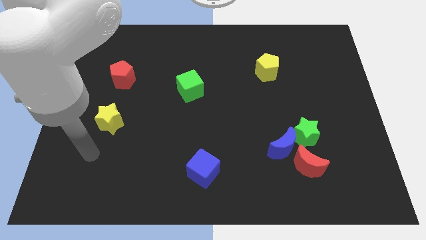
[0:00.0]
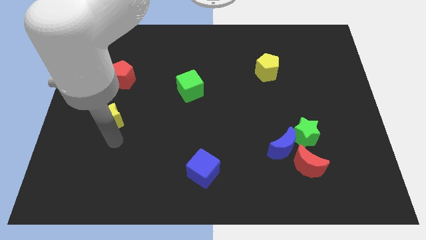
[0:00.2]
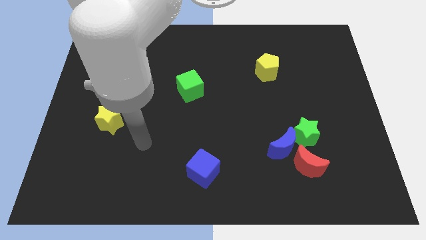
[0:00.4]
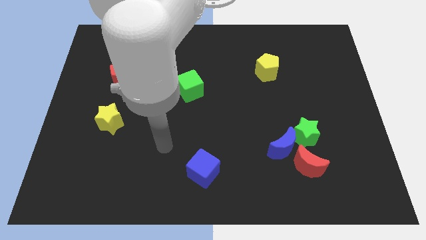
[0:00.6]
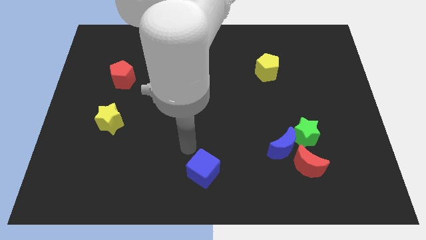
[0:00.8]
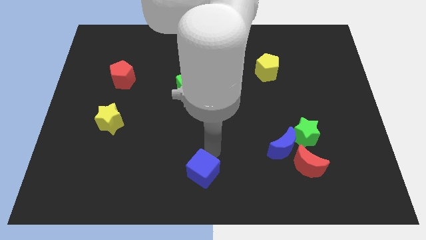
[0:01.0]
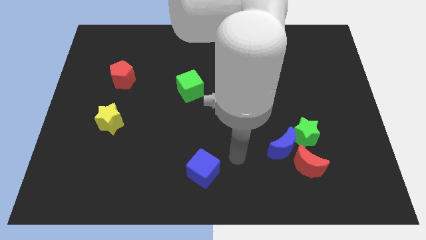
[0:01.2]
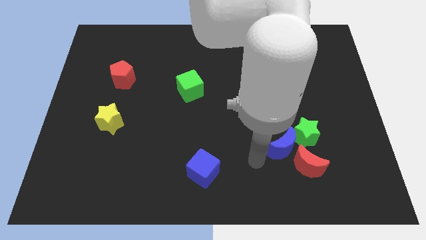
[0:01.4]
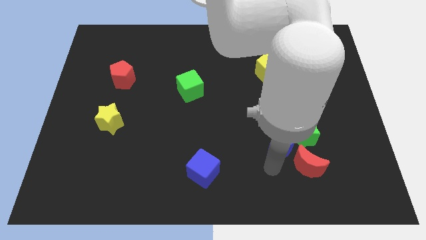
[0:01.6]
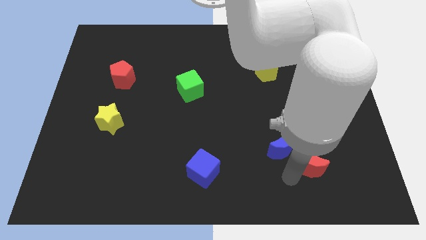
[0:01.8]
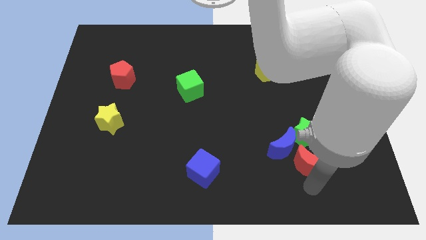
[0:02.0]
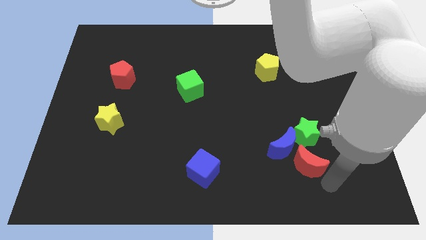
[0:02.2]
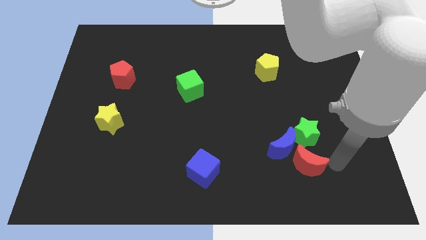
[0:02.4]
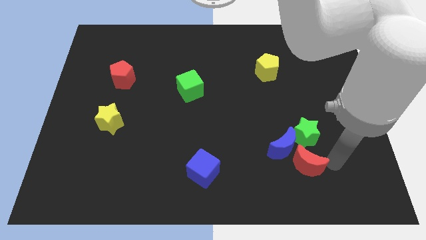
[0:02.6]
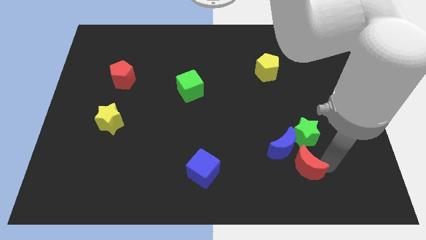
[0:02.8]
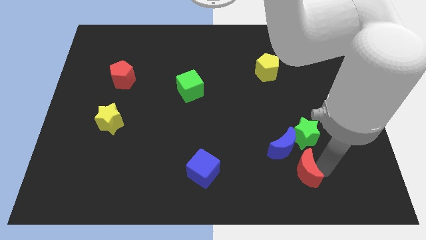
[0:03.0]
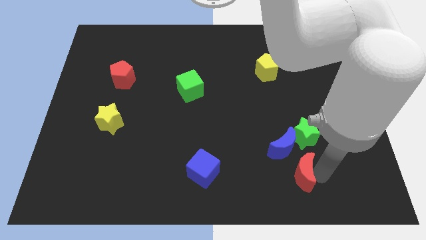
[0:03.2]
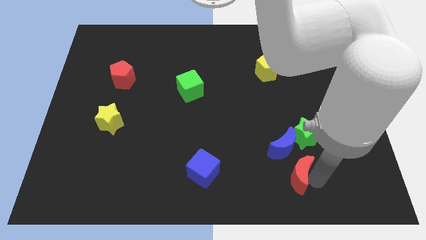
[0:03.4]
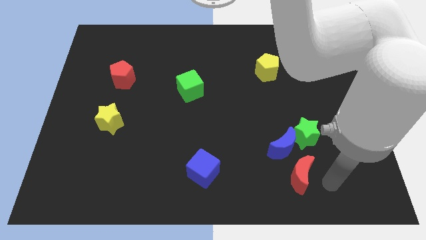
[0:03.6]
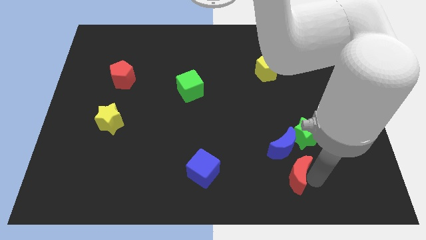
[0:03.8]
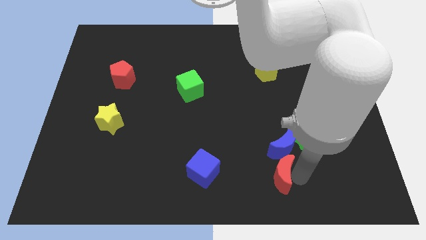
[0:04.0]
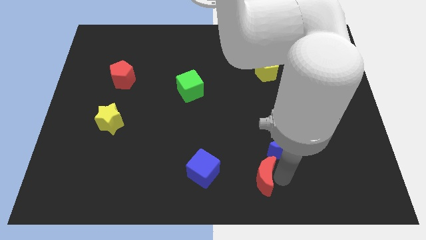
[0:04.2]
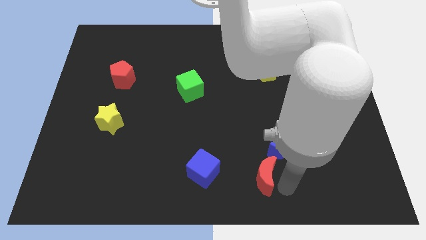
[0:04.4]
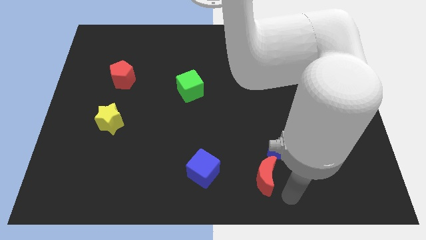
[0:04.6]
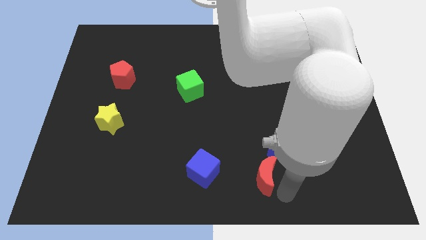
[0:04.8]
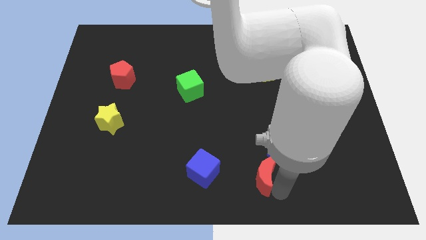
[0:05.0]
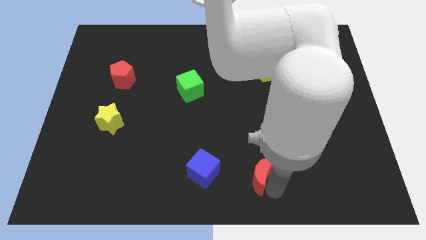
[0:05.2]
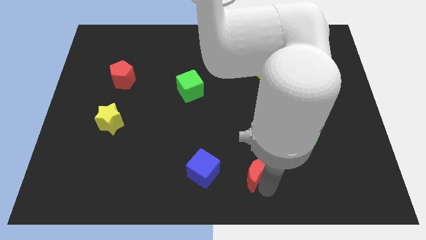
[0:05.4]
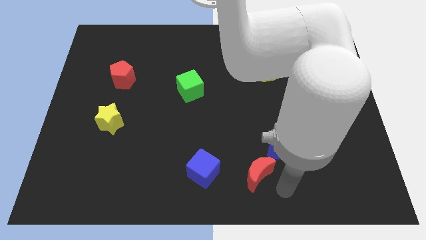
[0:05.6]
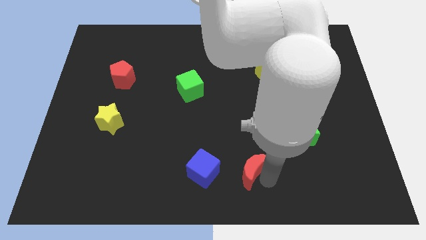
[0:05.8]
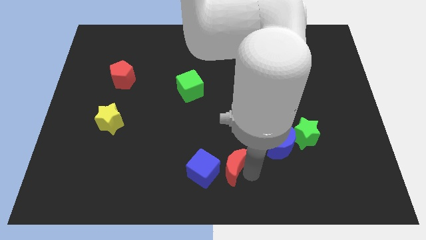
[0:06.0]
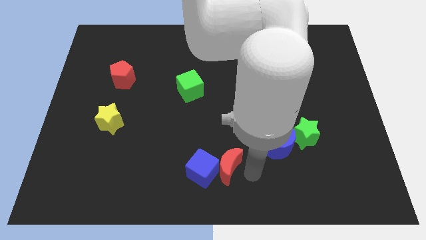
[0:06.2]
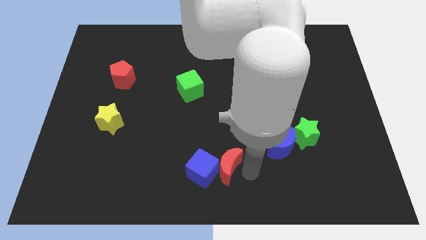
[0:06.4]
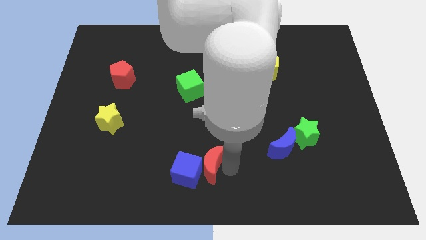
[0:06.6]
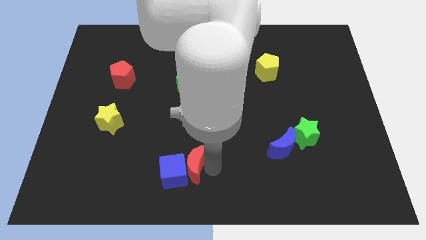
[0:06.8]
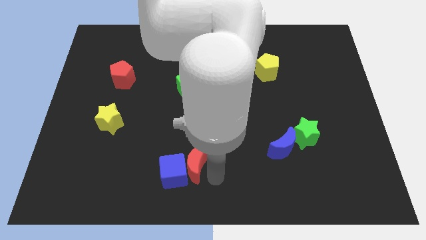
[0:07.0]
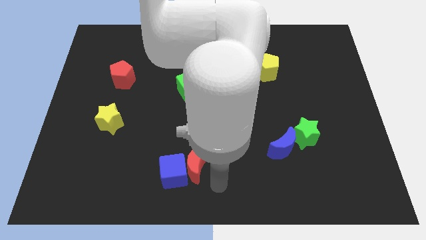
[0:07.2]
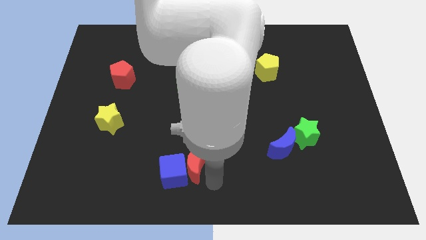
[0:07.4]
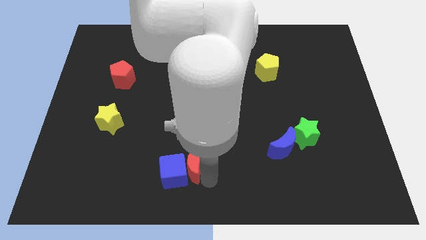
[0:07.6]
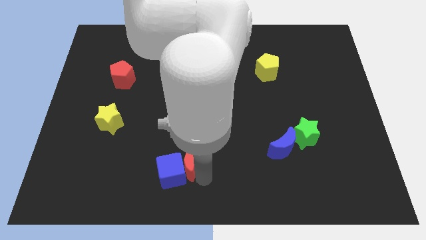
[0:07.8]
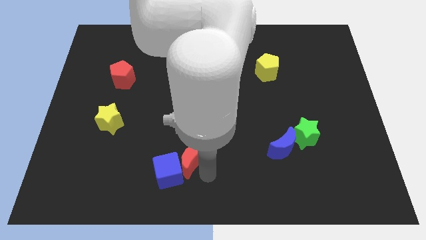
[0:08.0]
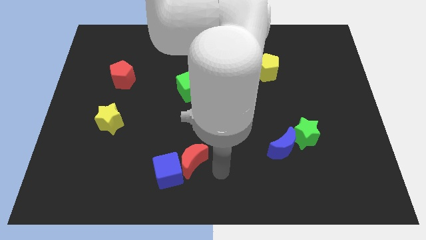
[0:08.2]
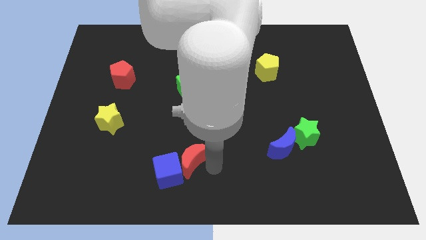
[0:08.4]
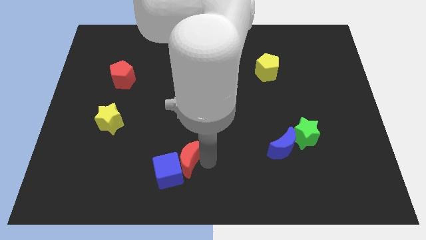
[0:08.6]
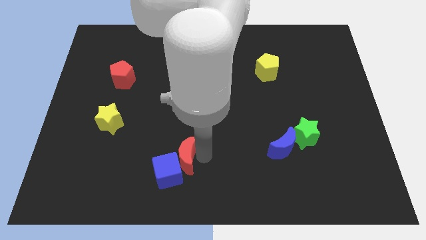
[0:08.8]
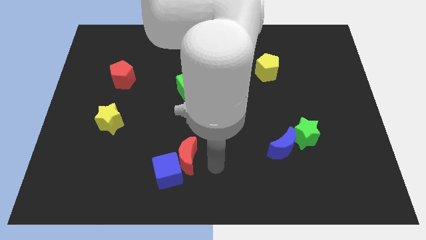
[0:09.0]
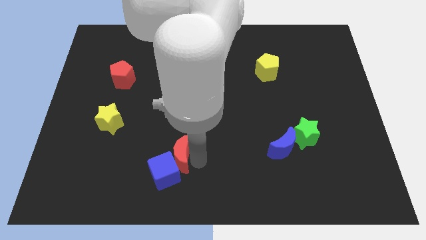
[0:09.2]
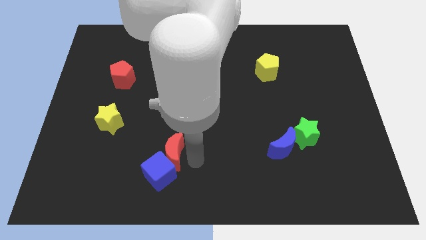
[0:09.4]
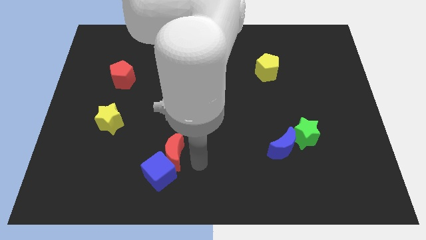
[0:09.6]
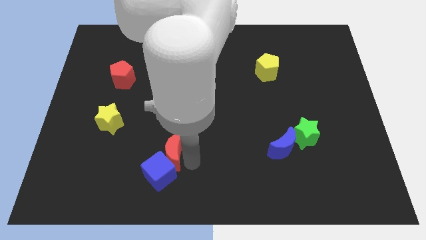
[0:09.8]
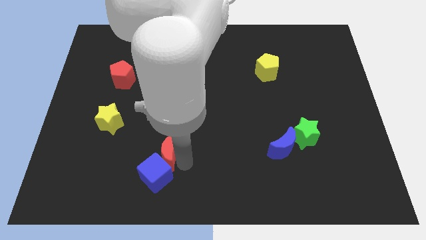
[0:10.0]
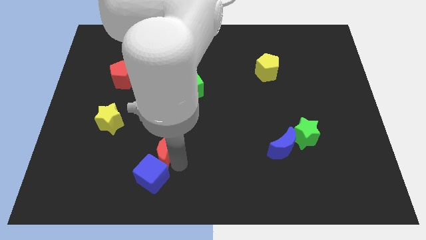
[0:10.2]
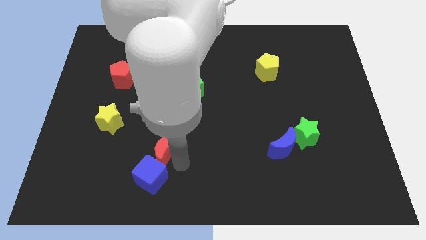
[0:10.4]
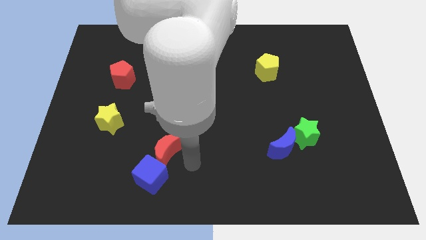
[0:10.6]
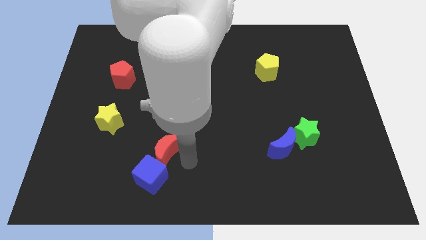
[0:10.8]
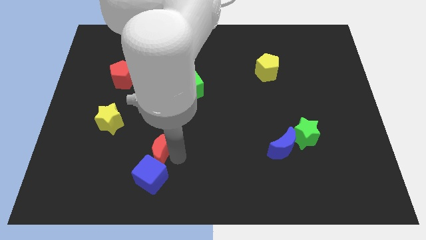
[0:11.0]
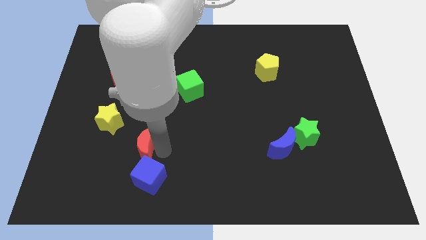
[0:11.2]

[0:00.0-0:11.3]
slide the red moon to the bottom right of the yellow star

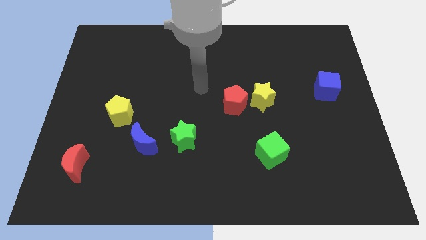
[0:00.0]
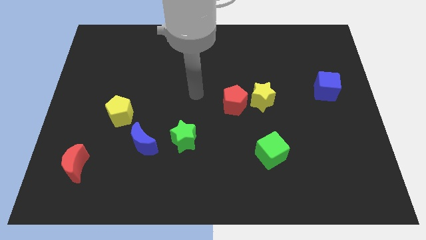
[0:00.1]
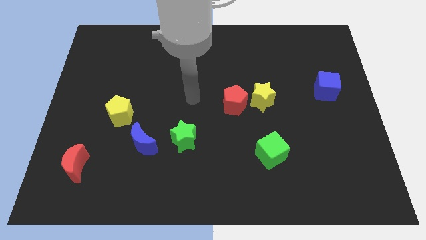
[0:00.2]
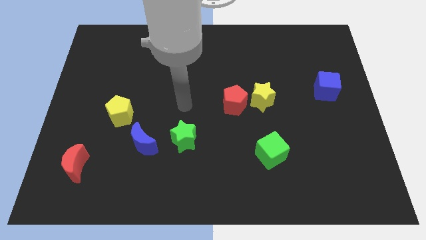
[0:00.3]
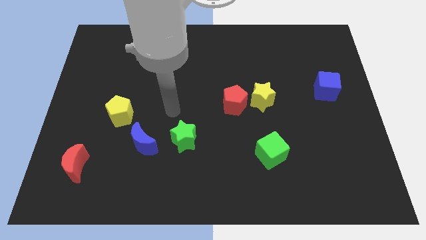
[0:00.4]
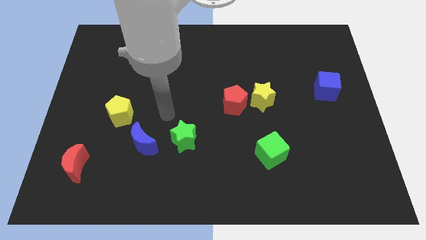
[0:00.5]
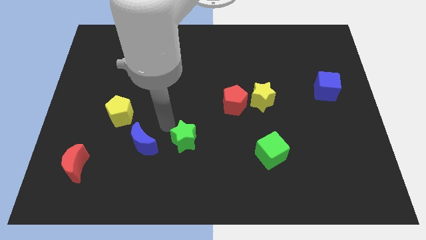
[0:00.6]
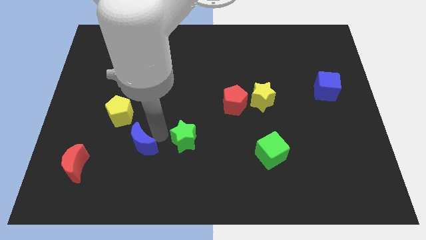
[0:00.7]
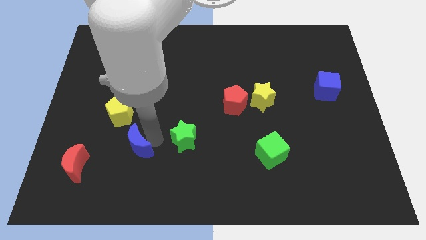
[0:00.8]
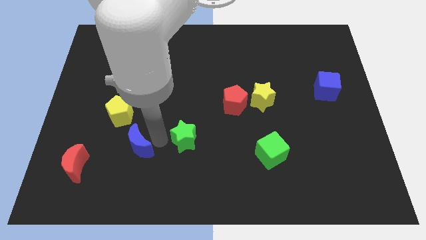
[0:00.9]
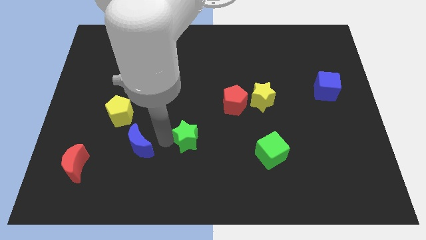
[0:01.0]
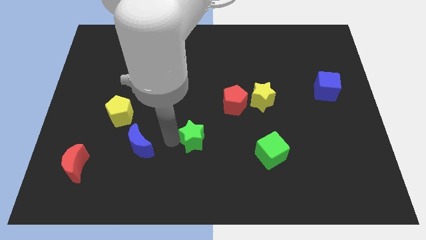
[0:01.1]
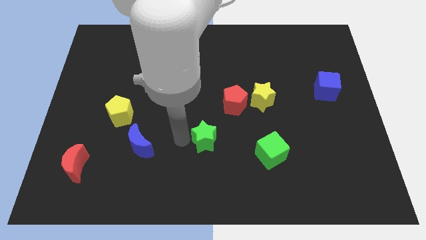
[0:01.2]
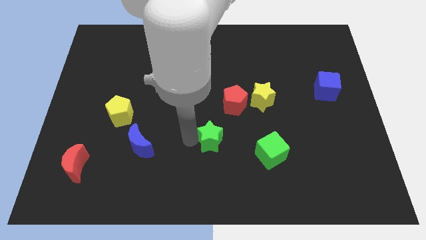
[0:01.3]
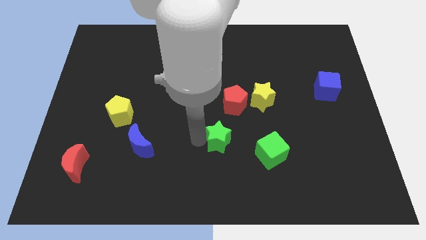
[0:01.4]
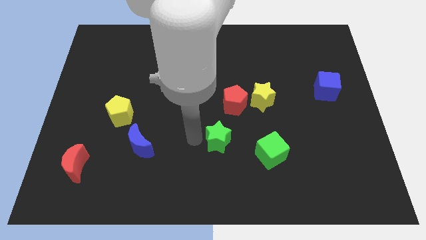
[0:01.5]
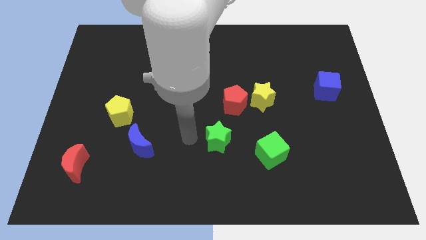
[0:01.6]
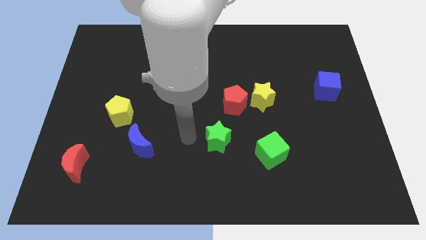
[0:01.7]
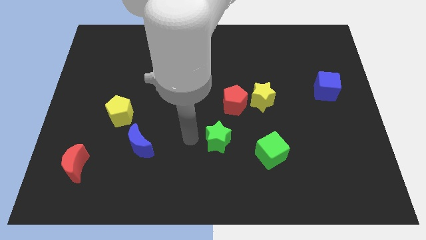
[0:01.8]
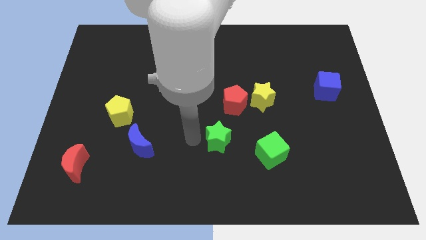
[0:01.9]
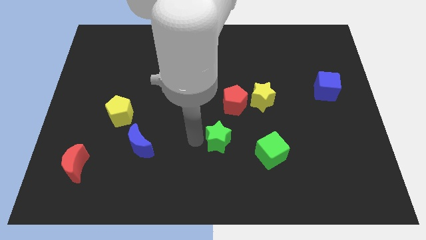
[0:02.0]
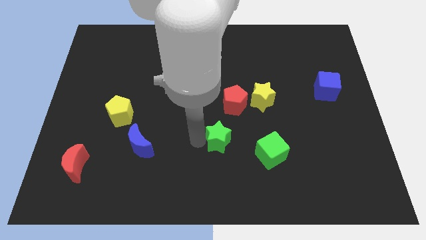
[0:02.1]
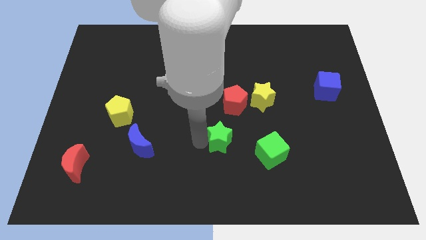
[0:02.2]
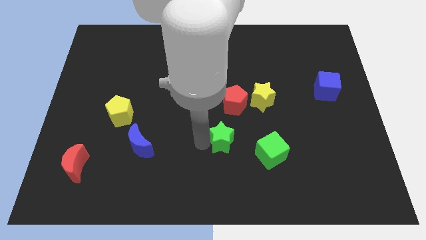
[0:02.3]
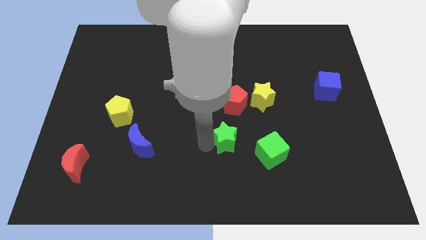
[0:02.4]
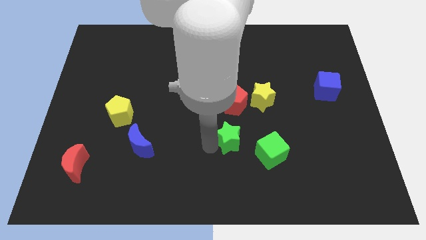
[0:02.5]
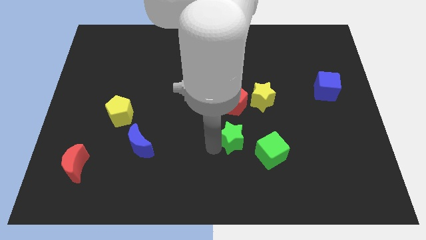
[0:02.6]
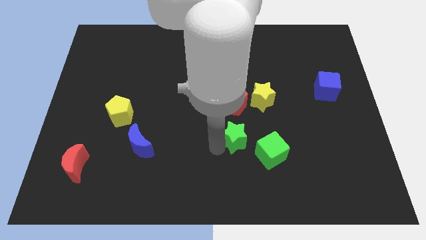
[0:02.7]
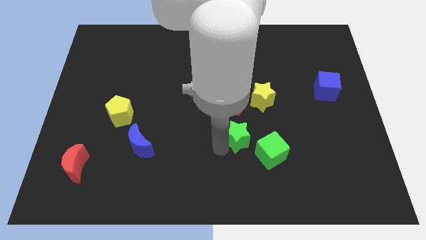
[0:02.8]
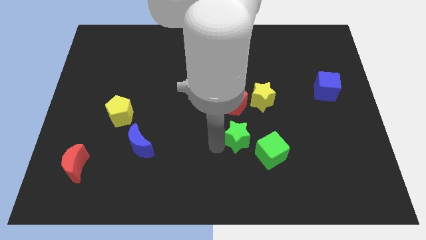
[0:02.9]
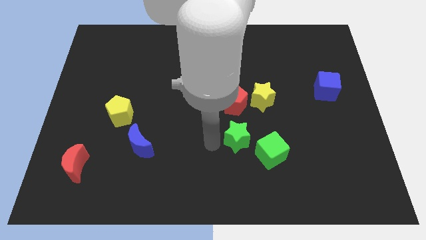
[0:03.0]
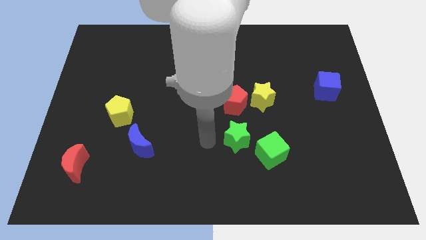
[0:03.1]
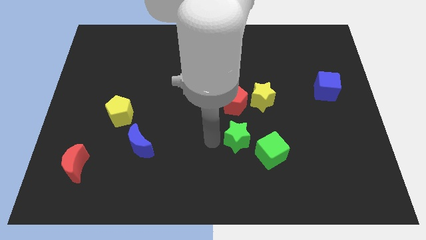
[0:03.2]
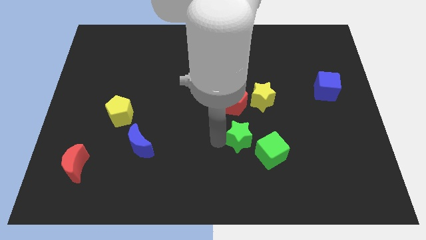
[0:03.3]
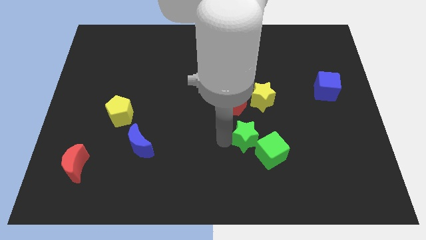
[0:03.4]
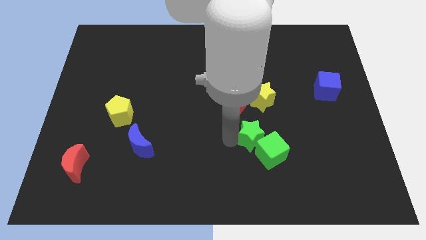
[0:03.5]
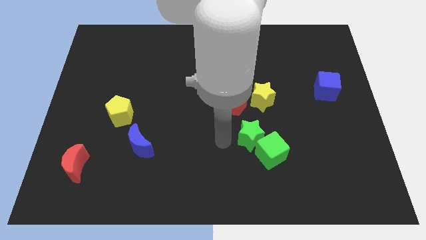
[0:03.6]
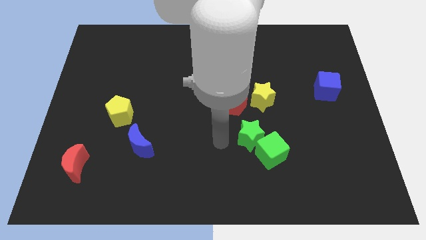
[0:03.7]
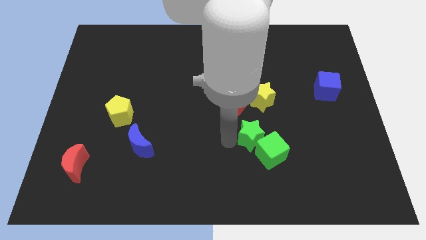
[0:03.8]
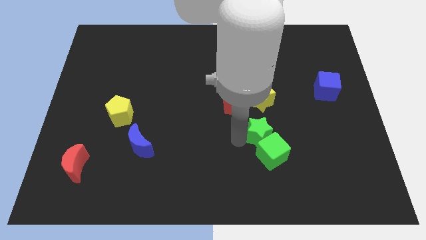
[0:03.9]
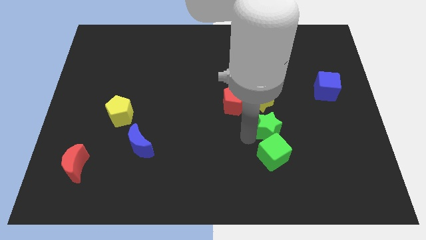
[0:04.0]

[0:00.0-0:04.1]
put the green star to the top right of the green cube
